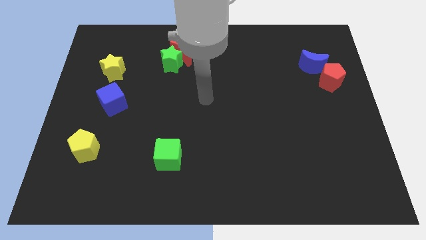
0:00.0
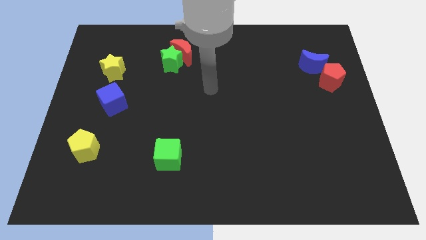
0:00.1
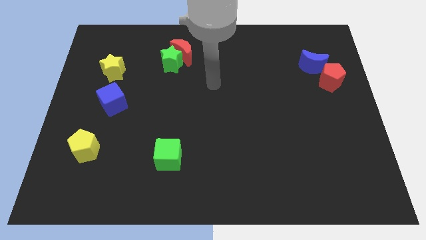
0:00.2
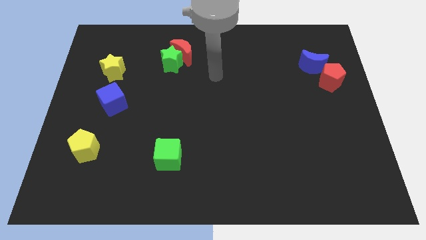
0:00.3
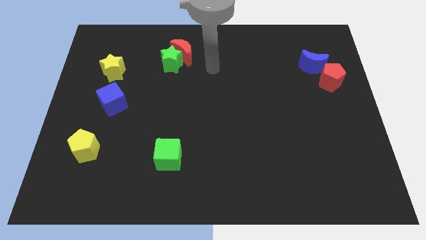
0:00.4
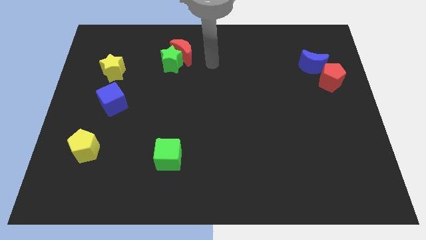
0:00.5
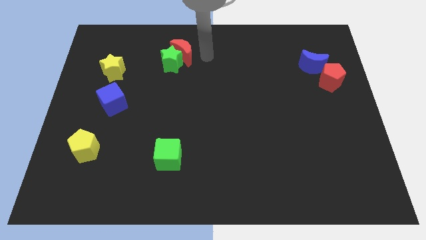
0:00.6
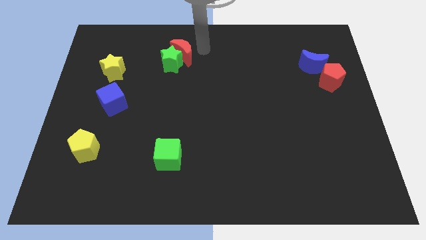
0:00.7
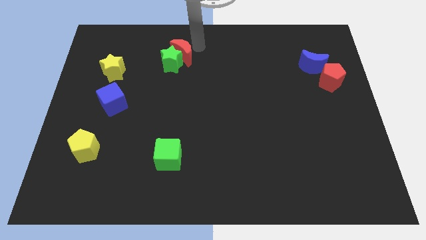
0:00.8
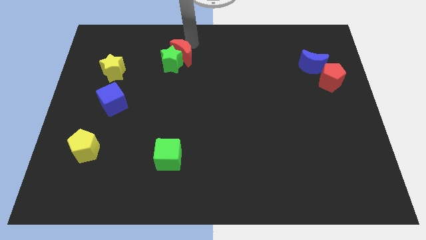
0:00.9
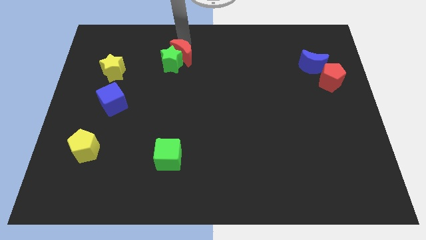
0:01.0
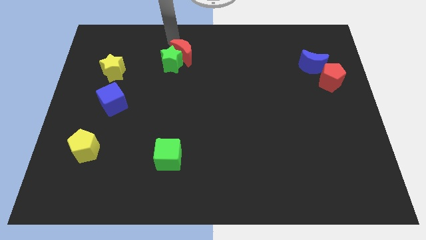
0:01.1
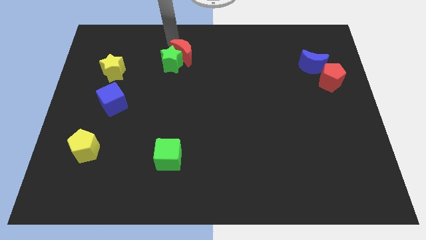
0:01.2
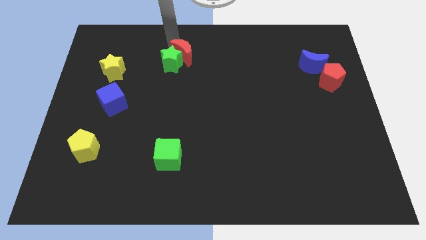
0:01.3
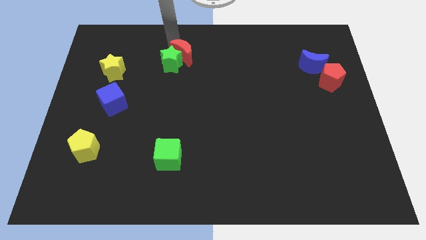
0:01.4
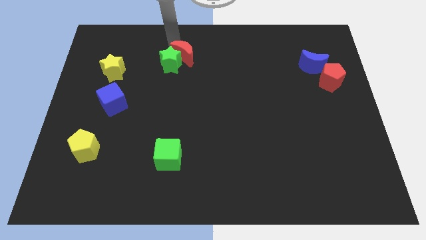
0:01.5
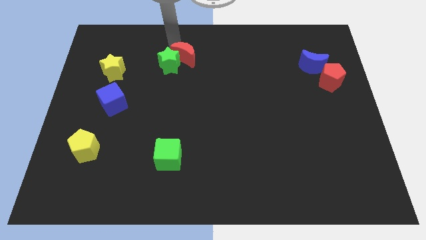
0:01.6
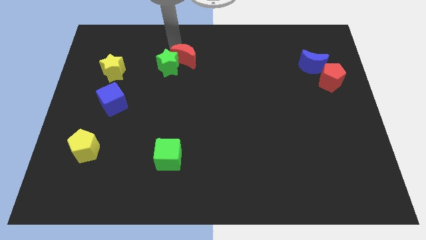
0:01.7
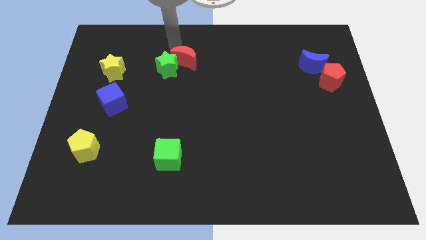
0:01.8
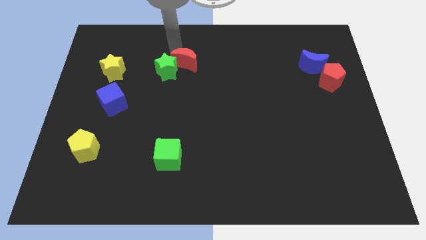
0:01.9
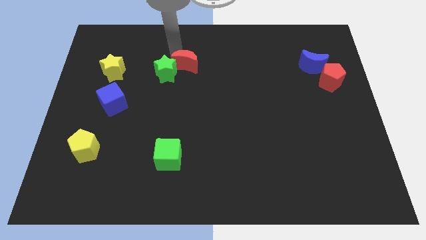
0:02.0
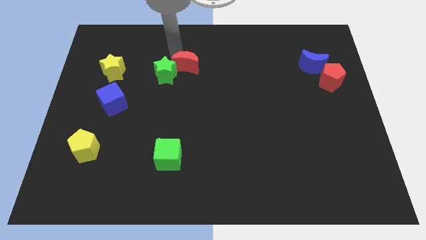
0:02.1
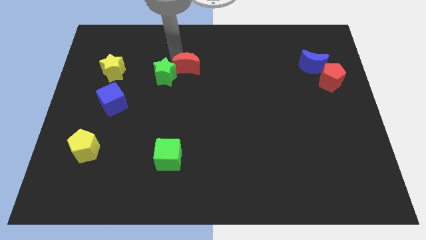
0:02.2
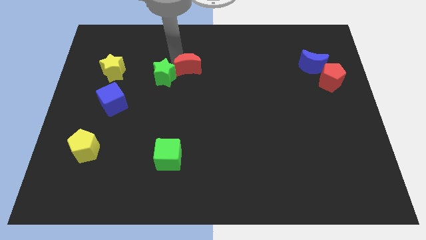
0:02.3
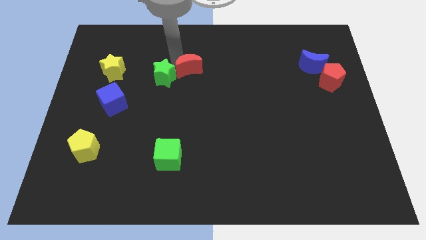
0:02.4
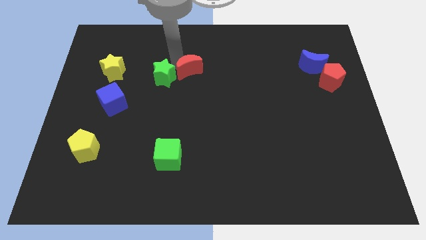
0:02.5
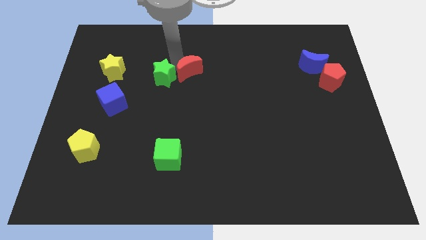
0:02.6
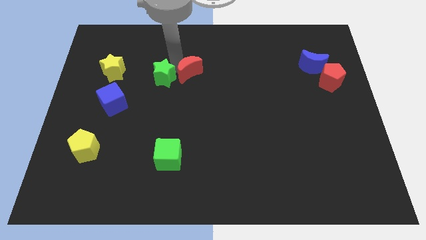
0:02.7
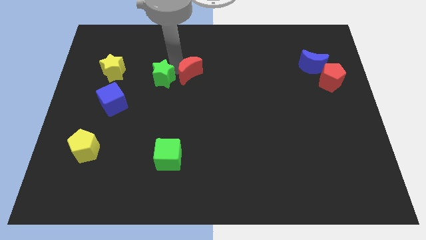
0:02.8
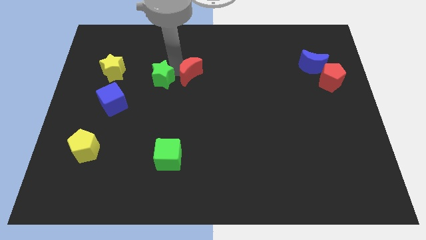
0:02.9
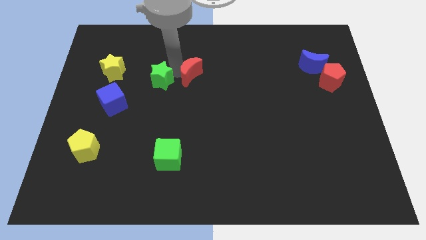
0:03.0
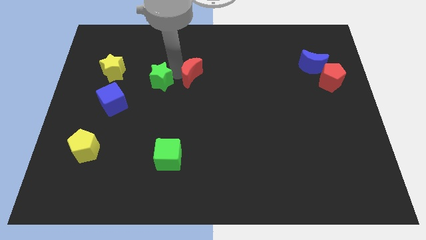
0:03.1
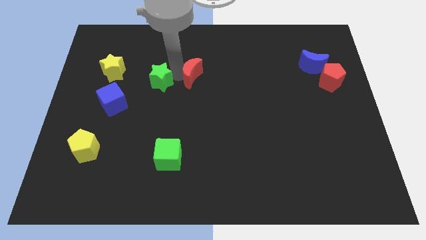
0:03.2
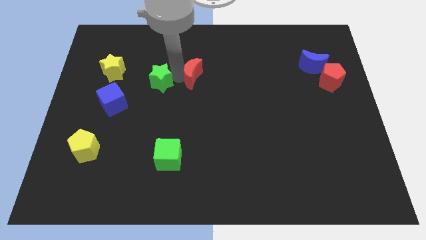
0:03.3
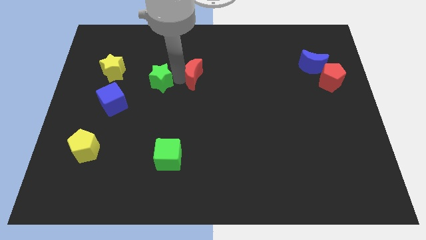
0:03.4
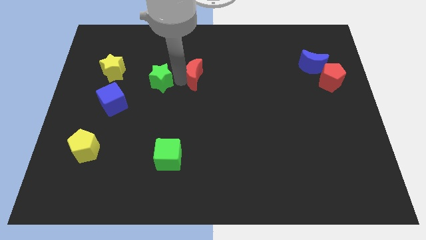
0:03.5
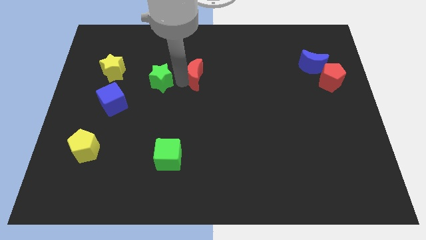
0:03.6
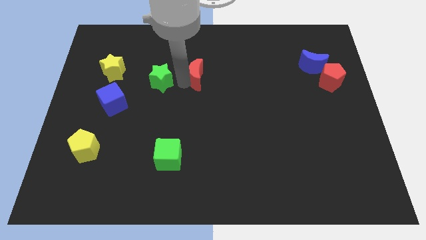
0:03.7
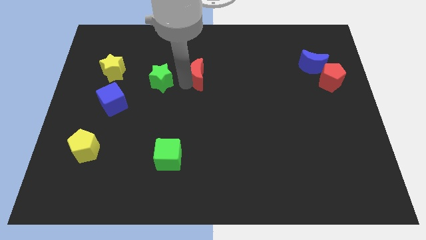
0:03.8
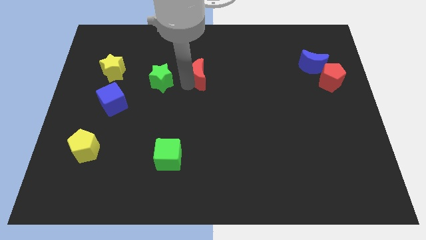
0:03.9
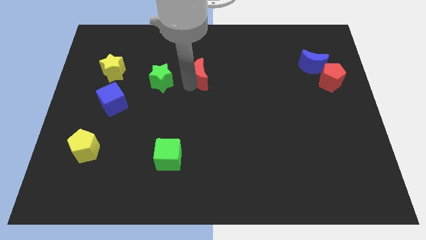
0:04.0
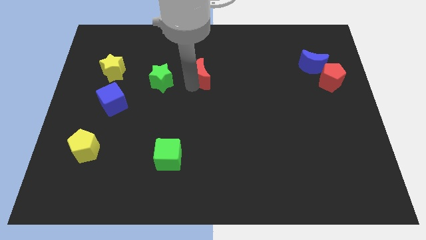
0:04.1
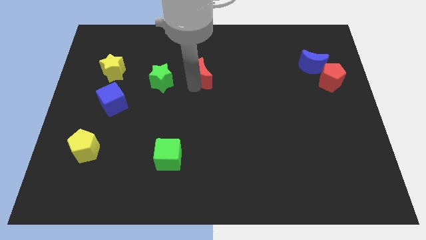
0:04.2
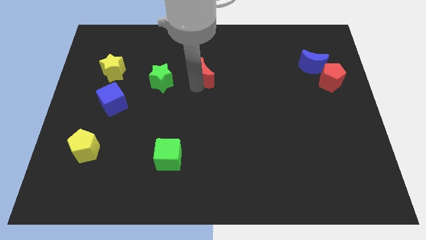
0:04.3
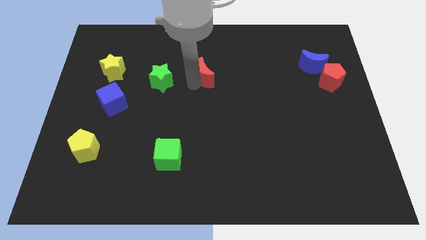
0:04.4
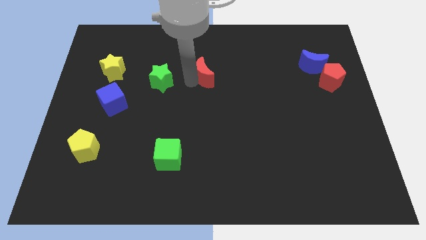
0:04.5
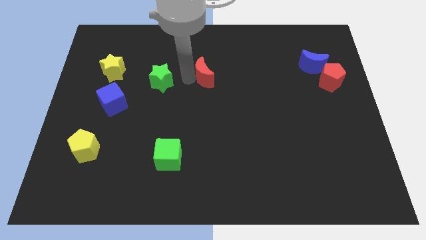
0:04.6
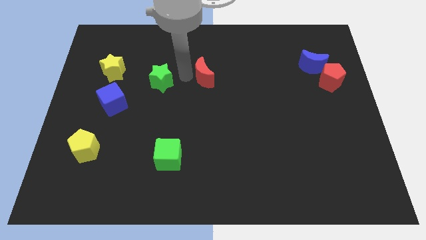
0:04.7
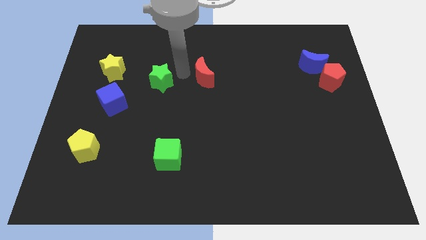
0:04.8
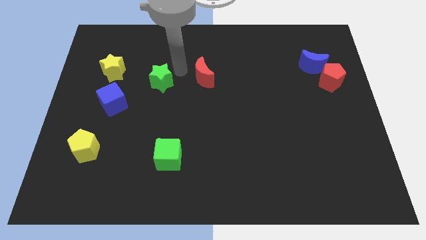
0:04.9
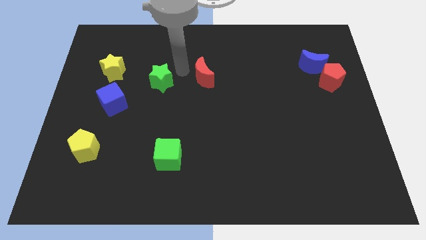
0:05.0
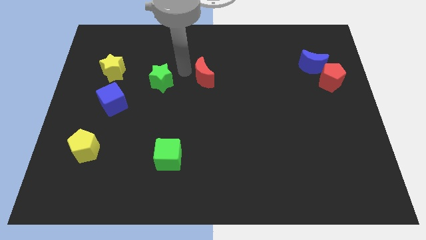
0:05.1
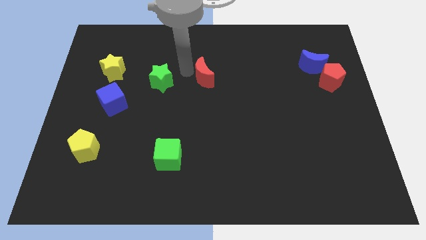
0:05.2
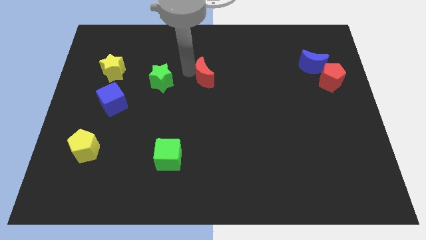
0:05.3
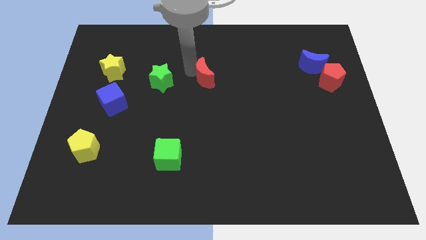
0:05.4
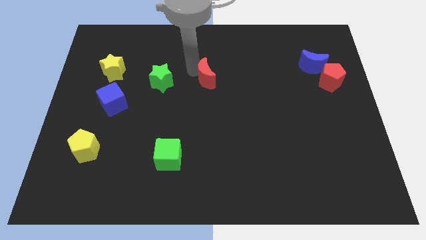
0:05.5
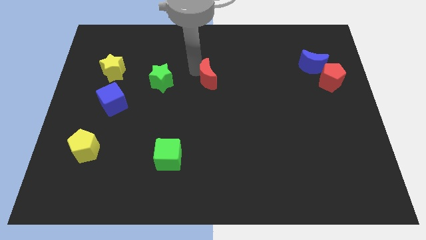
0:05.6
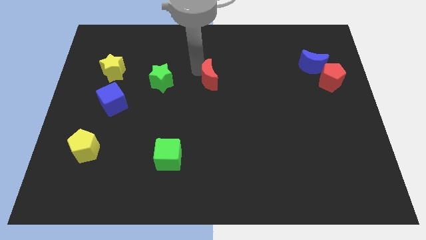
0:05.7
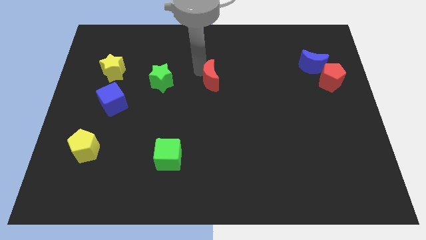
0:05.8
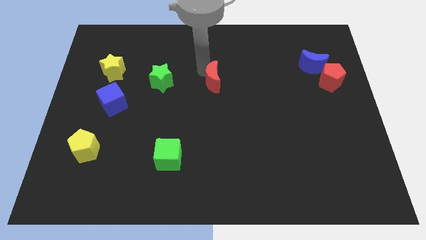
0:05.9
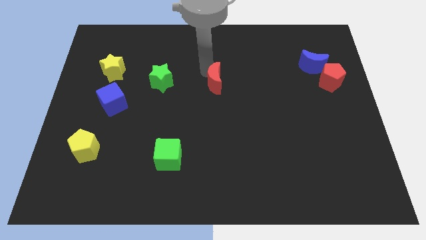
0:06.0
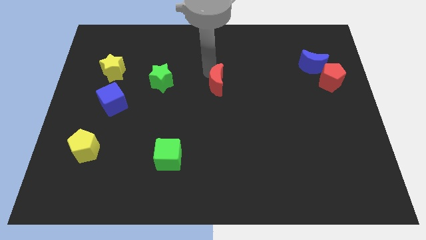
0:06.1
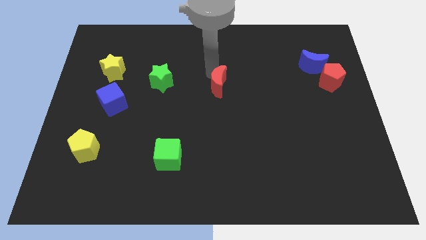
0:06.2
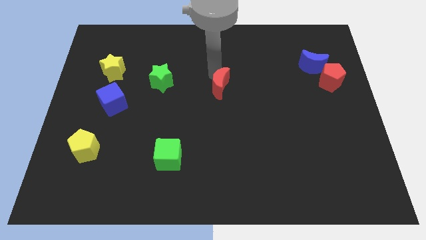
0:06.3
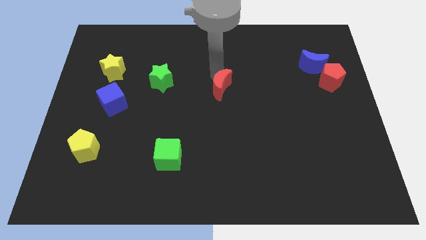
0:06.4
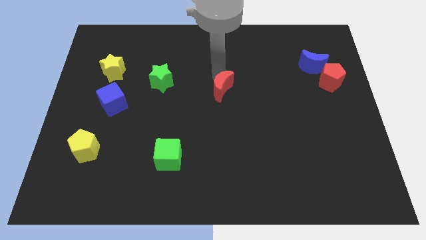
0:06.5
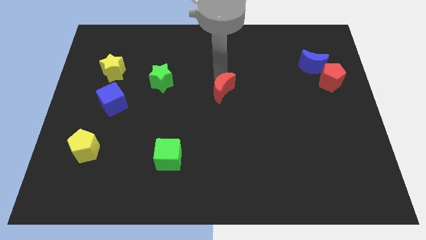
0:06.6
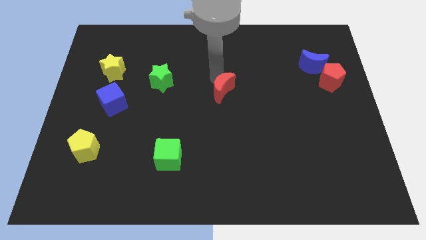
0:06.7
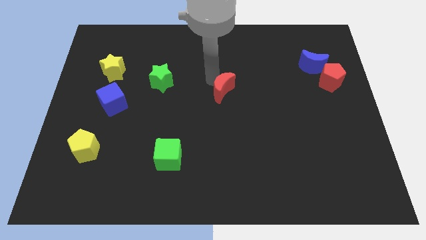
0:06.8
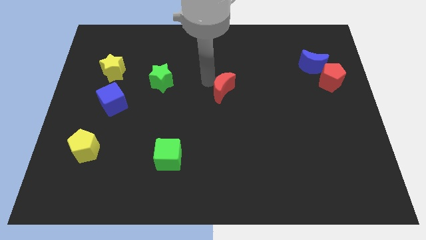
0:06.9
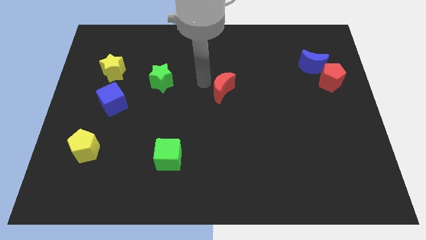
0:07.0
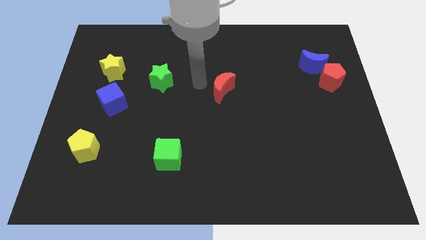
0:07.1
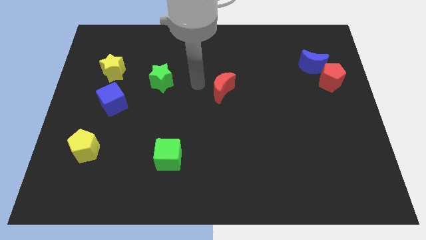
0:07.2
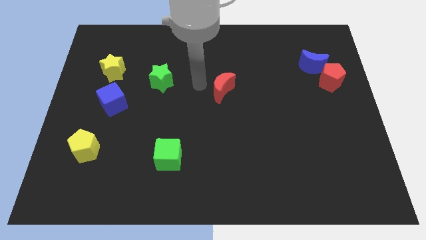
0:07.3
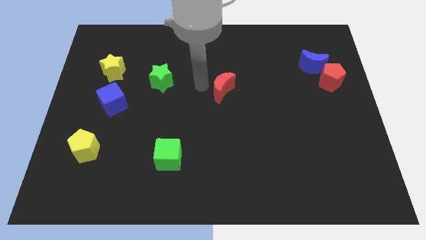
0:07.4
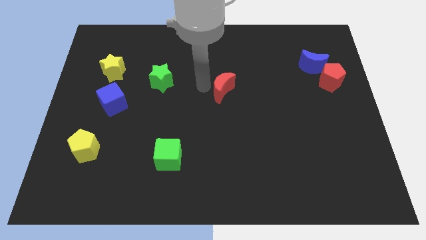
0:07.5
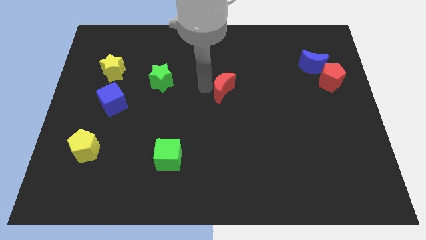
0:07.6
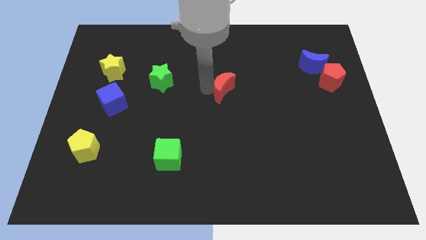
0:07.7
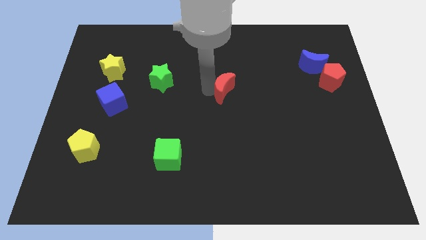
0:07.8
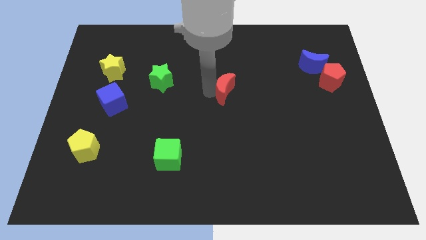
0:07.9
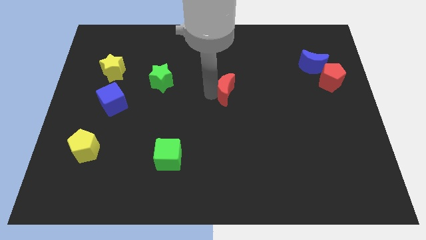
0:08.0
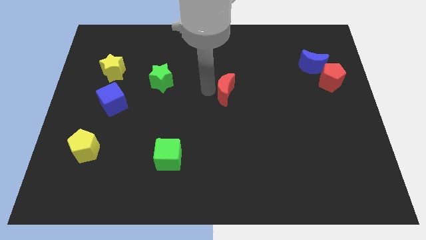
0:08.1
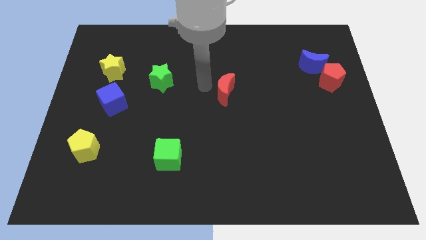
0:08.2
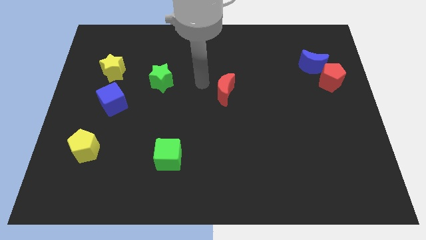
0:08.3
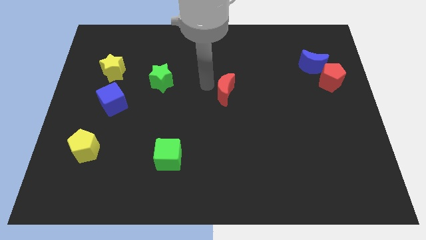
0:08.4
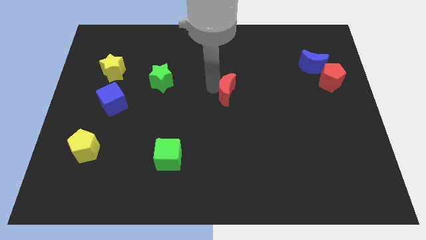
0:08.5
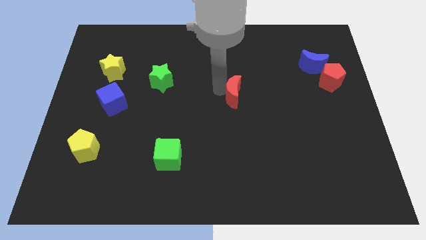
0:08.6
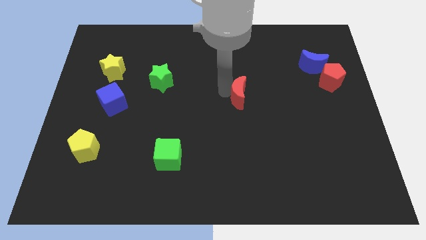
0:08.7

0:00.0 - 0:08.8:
slide the red moon diagonally downwards and to the right
